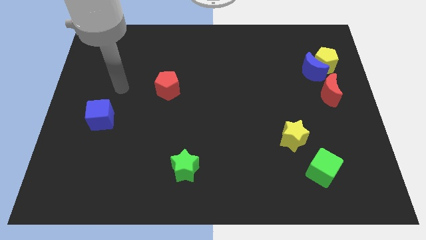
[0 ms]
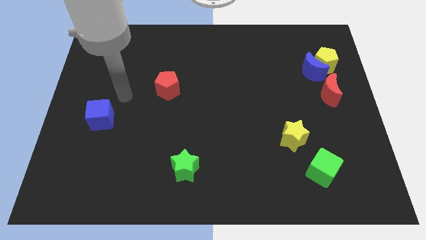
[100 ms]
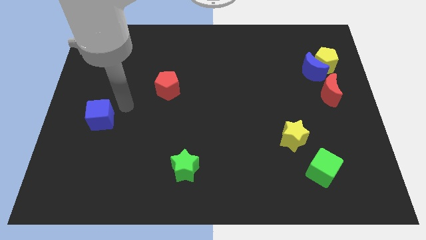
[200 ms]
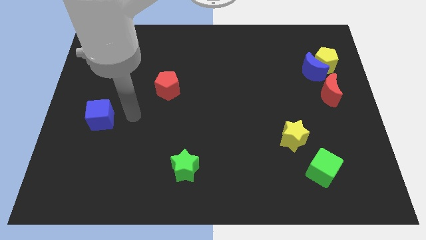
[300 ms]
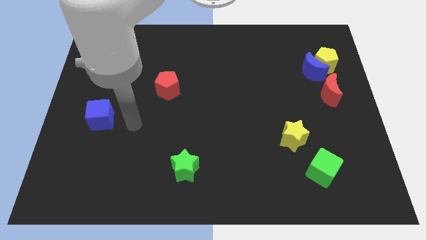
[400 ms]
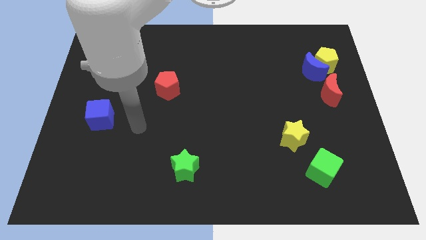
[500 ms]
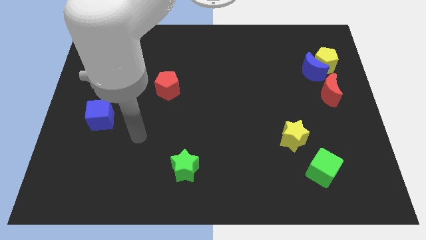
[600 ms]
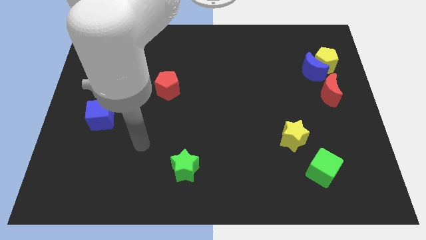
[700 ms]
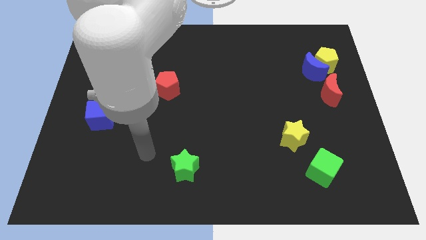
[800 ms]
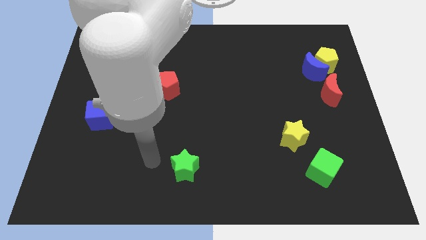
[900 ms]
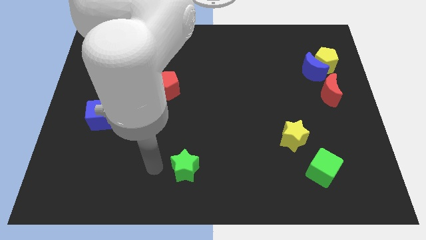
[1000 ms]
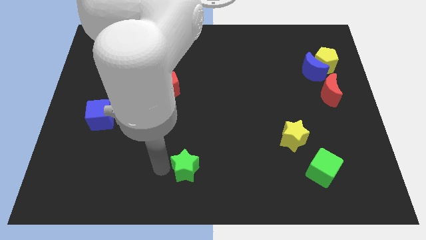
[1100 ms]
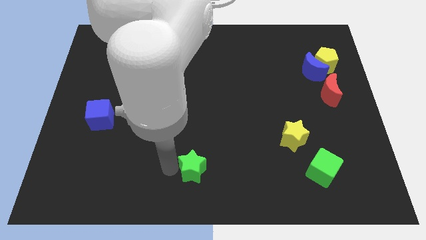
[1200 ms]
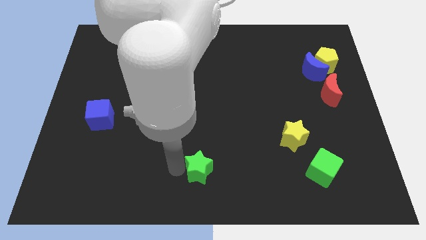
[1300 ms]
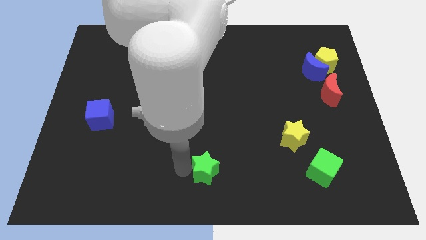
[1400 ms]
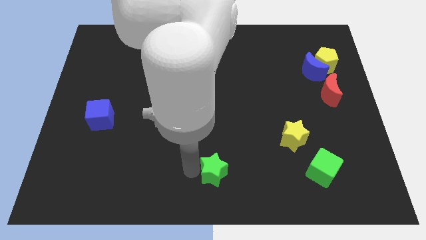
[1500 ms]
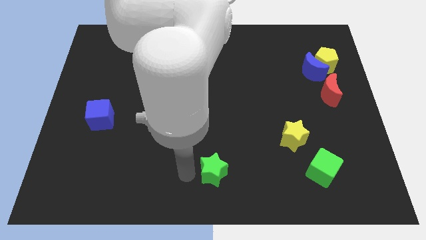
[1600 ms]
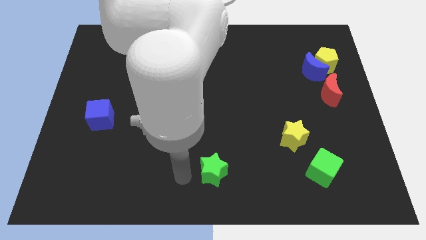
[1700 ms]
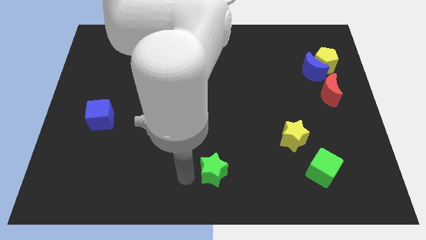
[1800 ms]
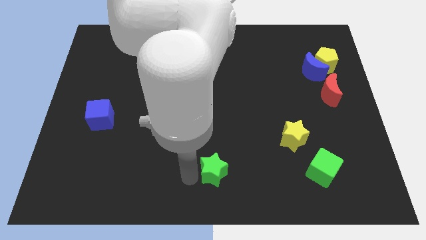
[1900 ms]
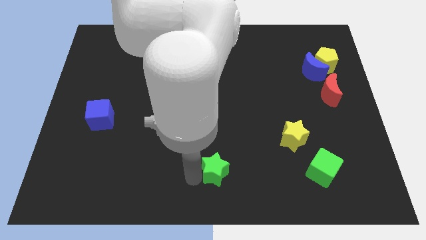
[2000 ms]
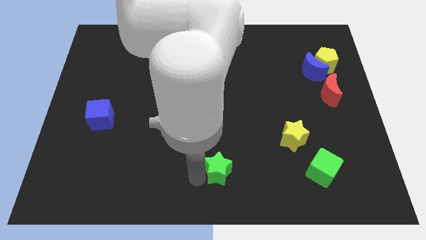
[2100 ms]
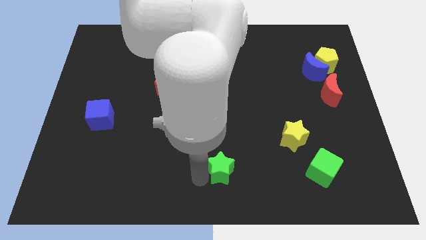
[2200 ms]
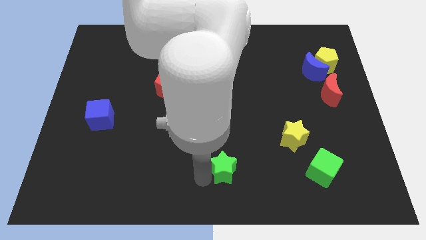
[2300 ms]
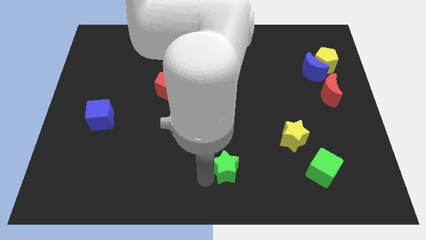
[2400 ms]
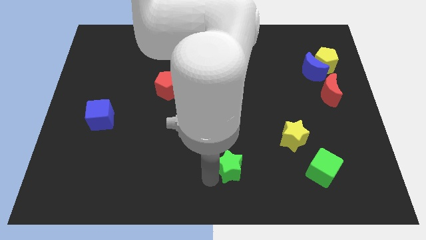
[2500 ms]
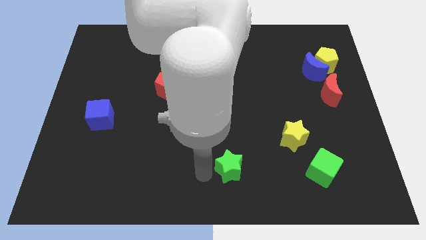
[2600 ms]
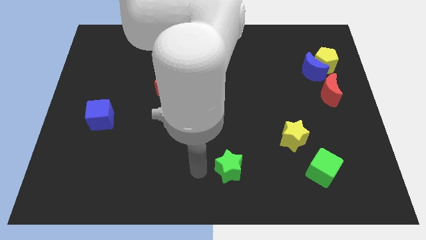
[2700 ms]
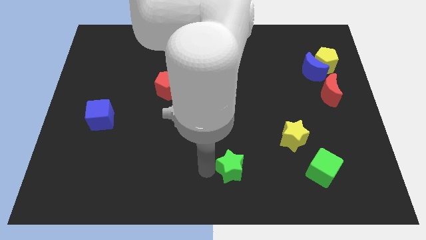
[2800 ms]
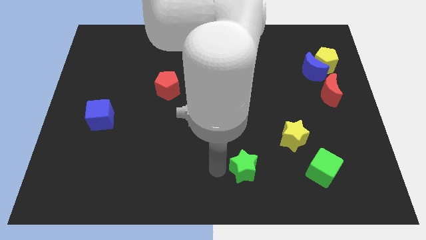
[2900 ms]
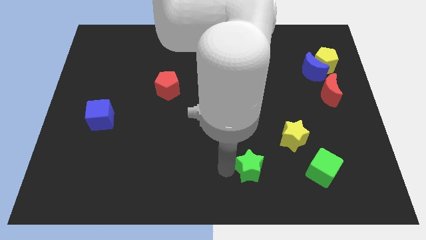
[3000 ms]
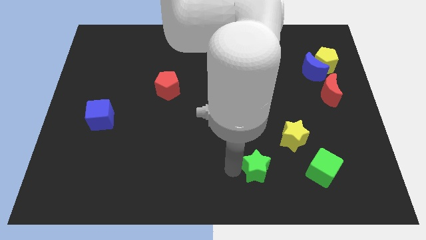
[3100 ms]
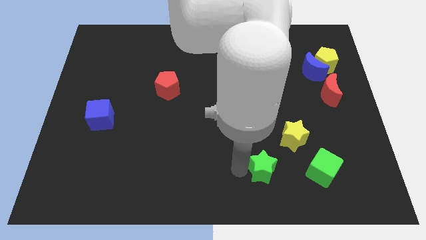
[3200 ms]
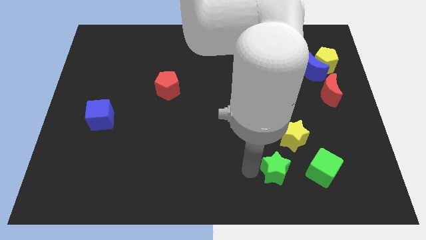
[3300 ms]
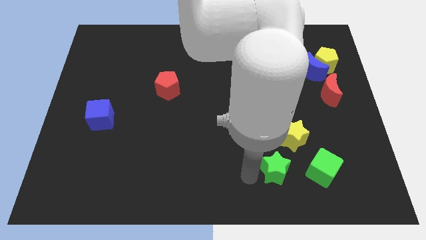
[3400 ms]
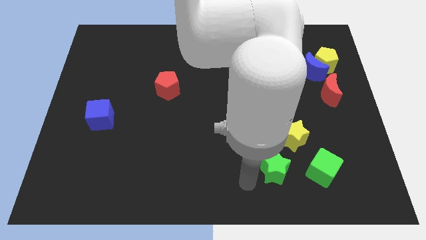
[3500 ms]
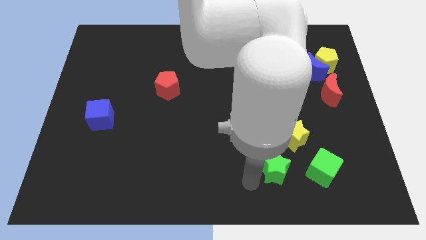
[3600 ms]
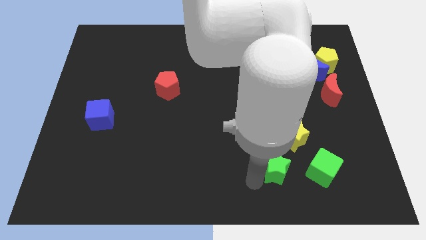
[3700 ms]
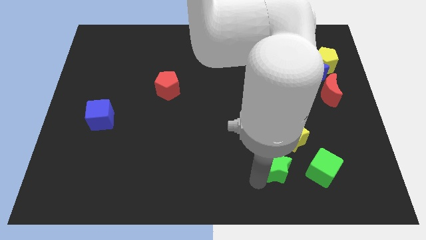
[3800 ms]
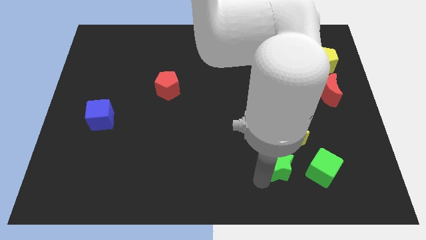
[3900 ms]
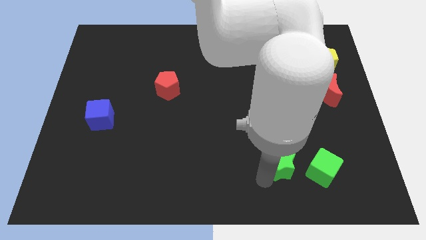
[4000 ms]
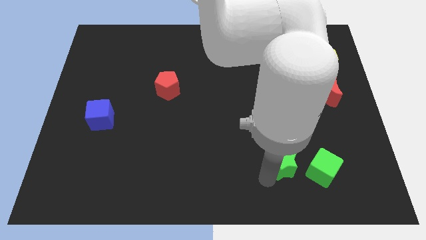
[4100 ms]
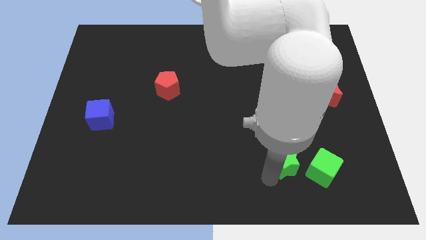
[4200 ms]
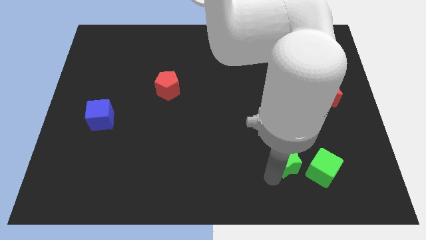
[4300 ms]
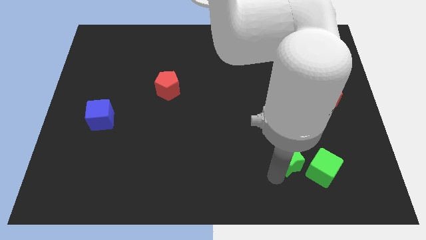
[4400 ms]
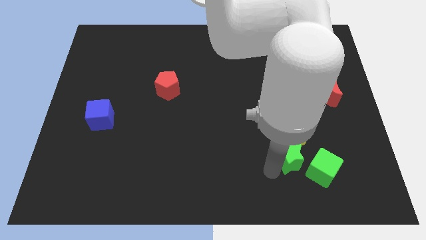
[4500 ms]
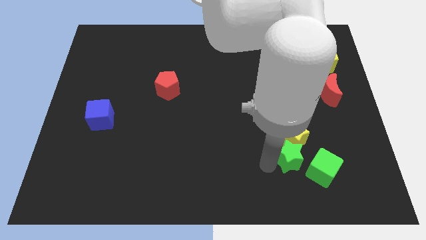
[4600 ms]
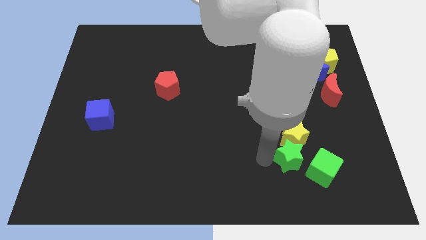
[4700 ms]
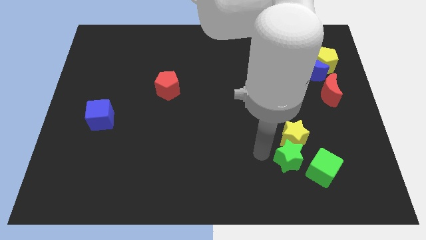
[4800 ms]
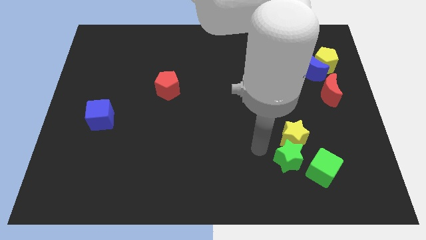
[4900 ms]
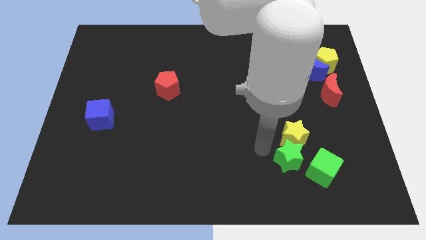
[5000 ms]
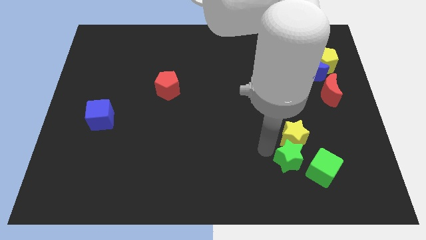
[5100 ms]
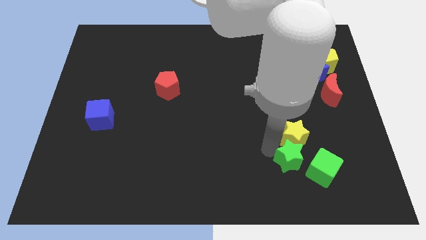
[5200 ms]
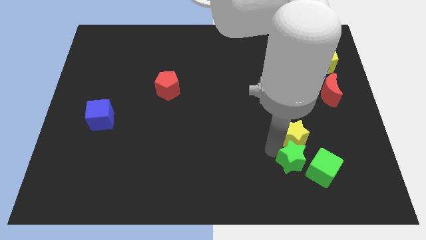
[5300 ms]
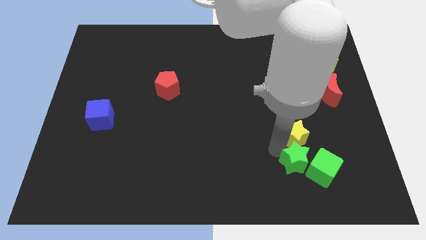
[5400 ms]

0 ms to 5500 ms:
move the green star next to the green cube

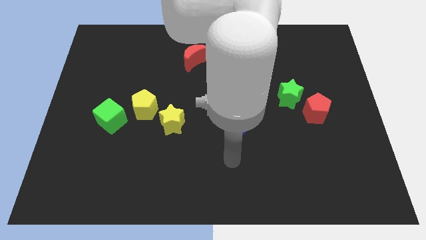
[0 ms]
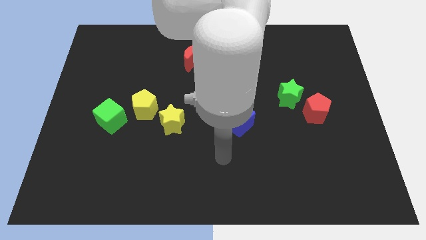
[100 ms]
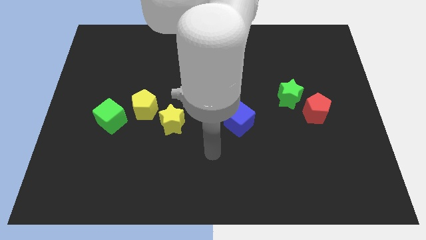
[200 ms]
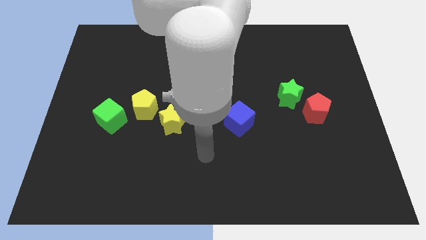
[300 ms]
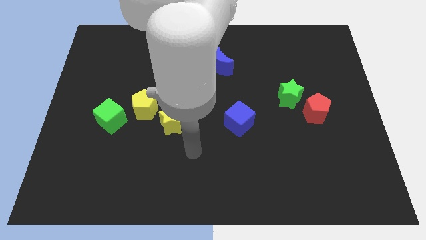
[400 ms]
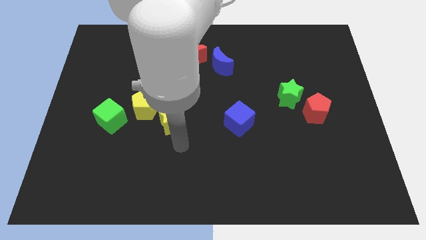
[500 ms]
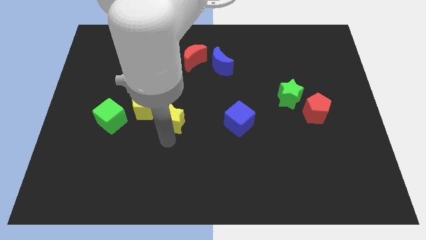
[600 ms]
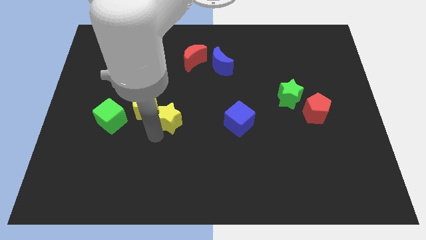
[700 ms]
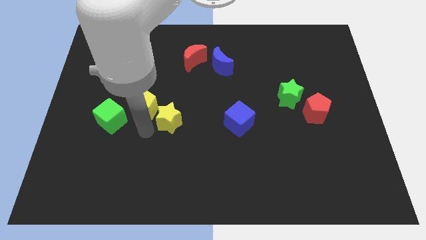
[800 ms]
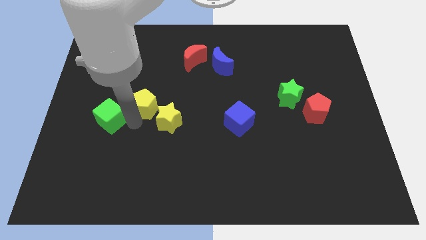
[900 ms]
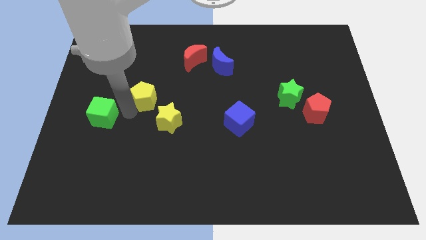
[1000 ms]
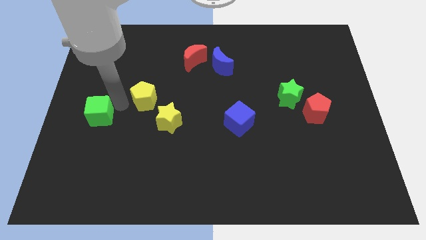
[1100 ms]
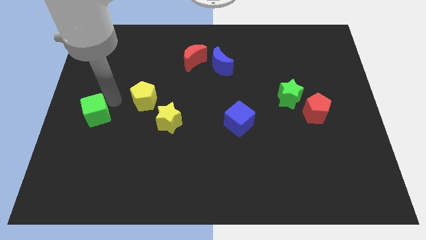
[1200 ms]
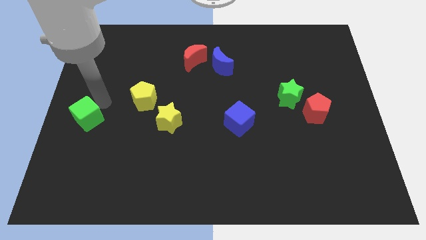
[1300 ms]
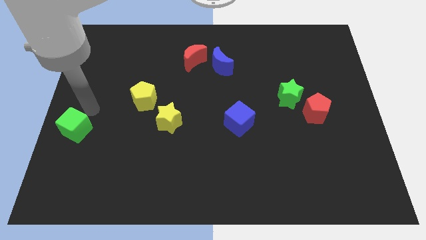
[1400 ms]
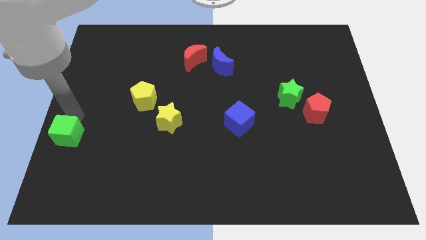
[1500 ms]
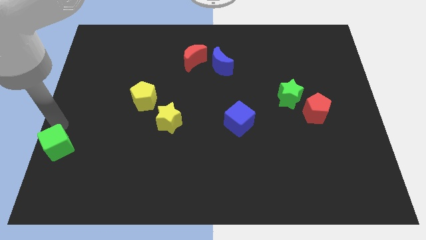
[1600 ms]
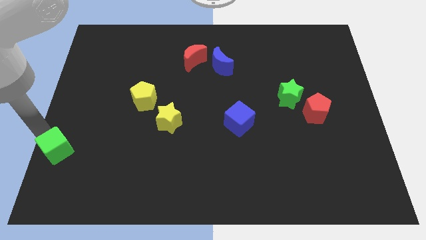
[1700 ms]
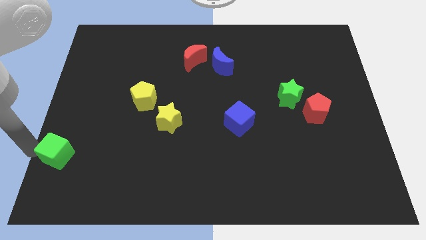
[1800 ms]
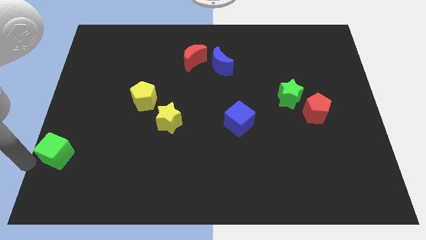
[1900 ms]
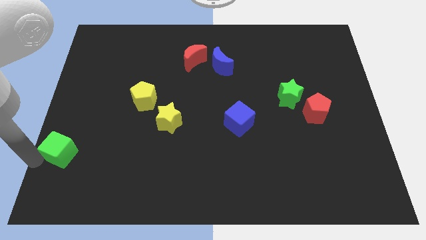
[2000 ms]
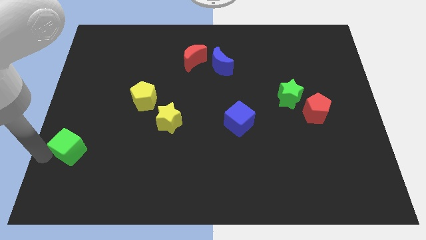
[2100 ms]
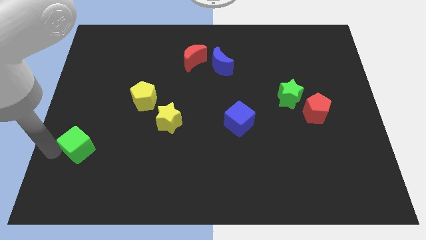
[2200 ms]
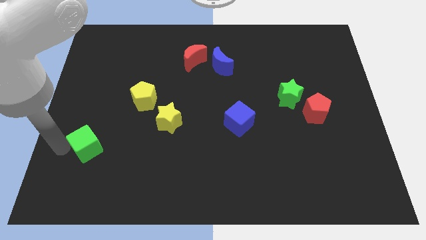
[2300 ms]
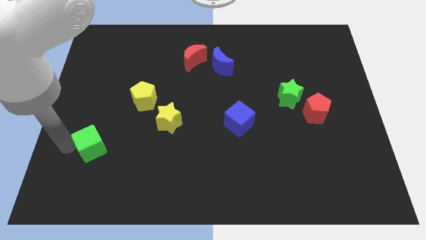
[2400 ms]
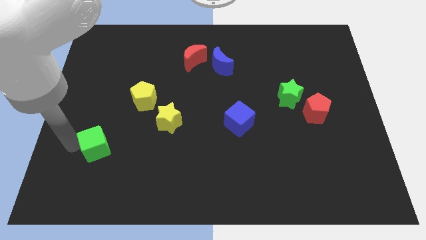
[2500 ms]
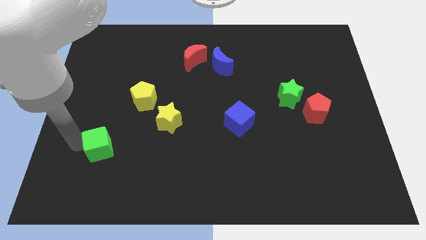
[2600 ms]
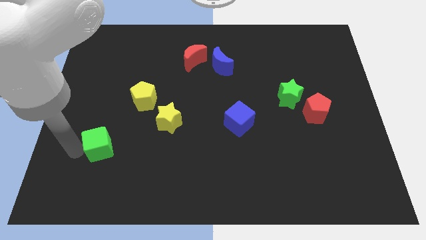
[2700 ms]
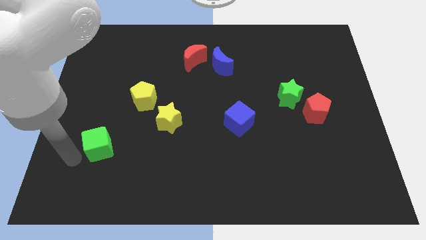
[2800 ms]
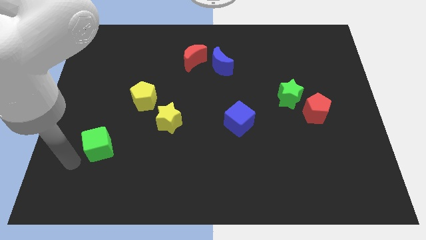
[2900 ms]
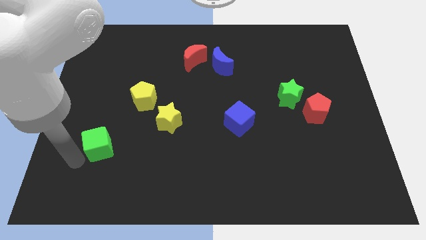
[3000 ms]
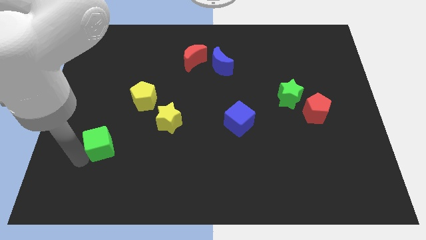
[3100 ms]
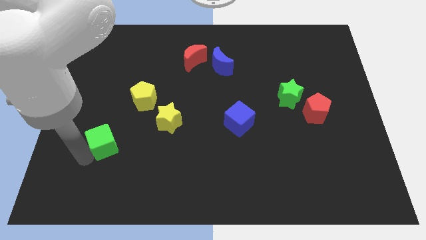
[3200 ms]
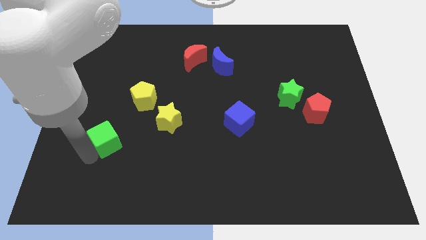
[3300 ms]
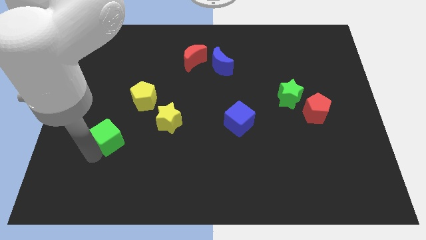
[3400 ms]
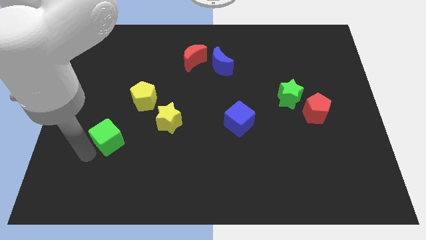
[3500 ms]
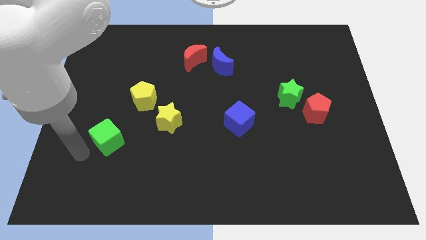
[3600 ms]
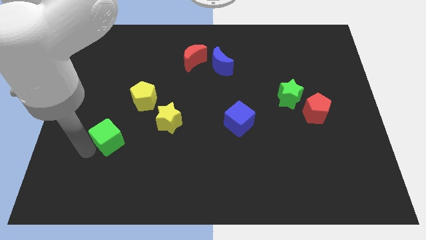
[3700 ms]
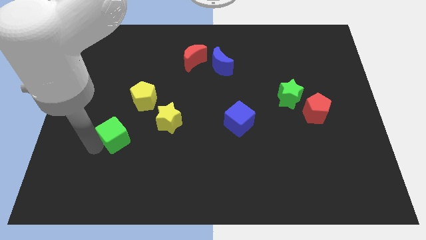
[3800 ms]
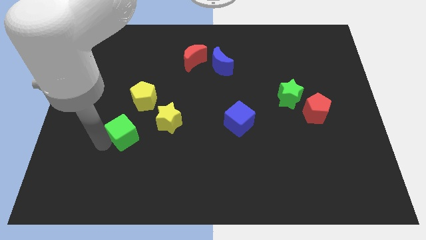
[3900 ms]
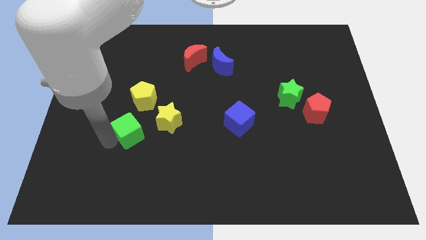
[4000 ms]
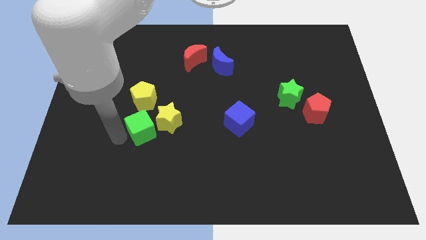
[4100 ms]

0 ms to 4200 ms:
move the green cube next to the yellow star
